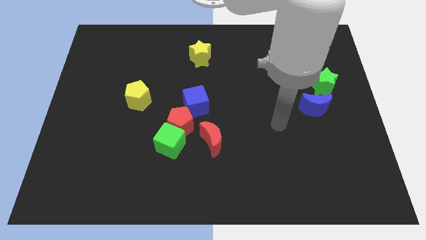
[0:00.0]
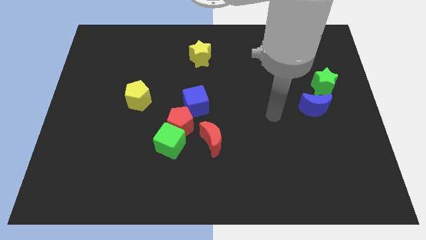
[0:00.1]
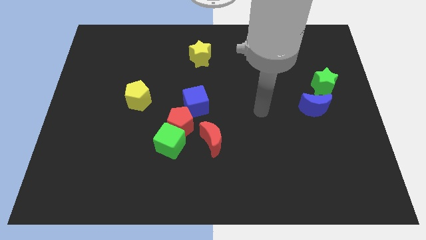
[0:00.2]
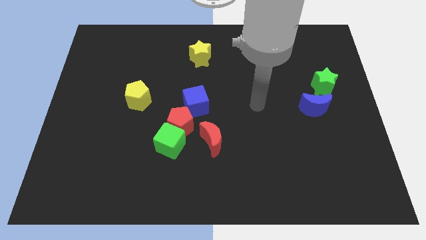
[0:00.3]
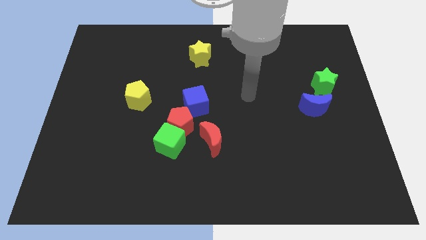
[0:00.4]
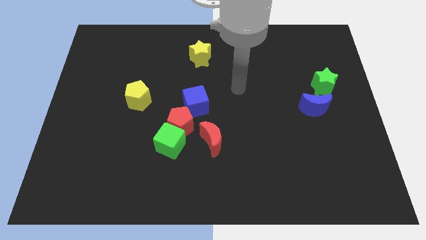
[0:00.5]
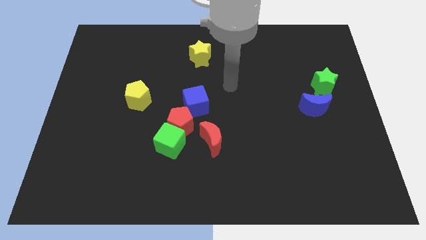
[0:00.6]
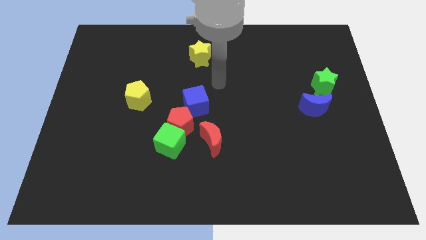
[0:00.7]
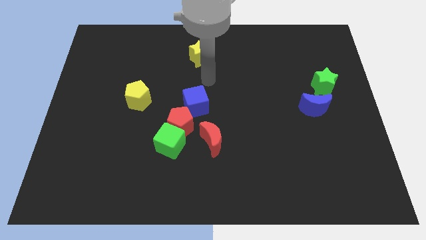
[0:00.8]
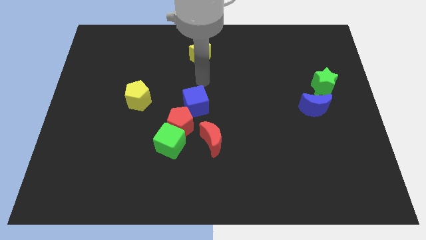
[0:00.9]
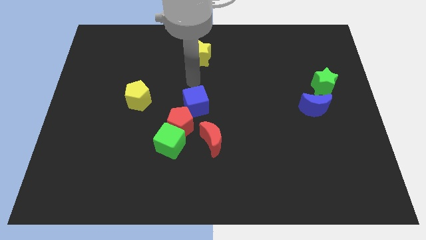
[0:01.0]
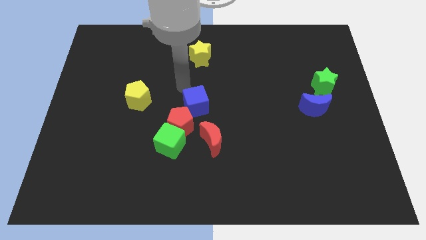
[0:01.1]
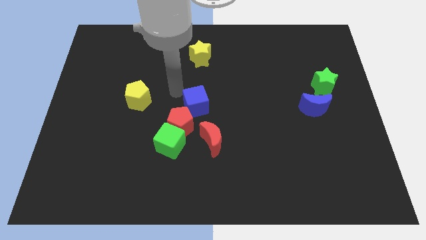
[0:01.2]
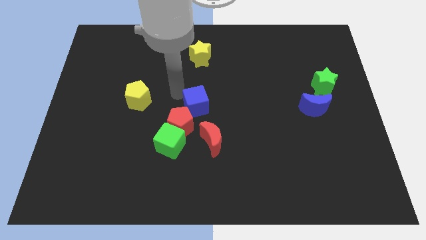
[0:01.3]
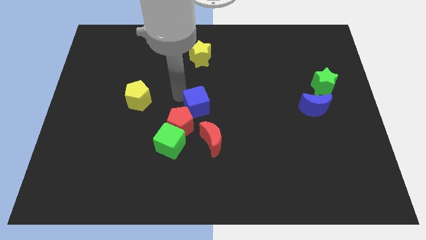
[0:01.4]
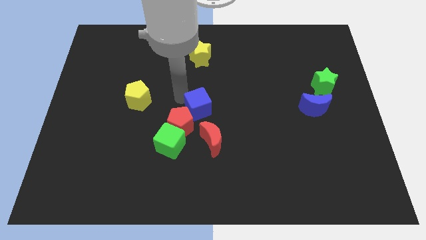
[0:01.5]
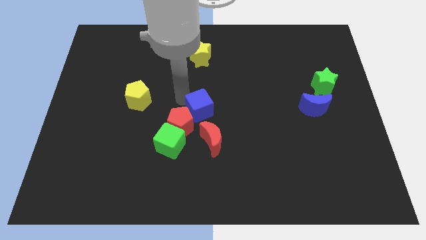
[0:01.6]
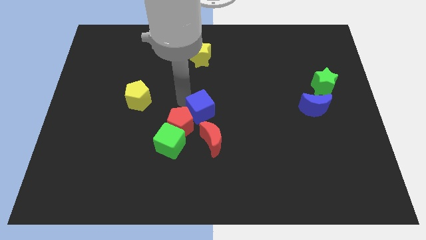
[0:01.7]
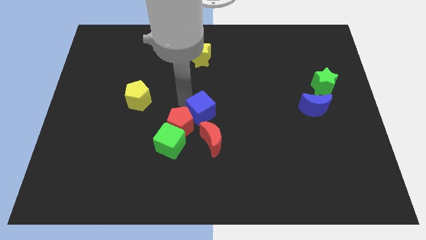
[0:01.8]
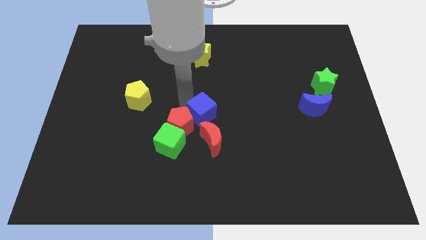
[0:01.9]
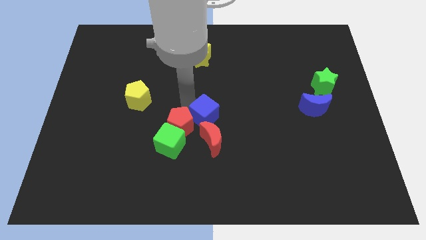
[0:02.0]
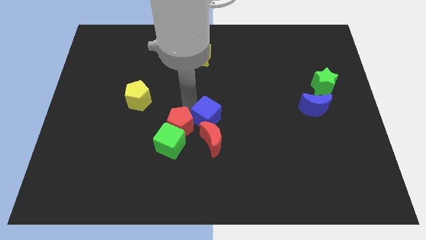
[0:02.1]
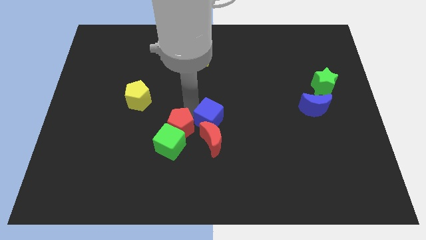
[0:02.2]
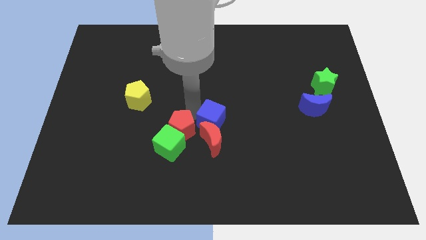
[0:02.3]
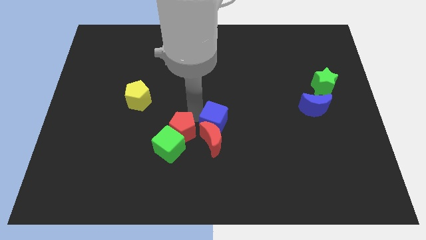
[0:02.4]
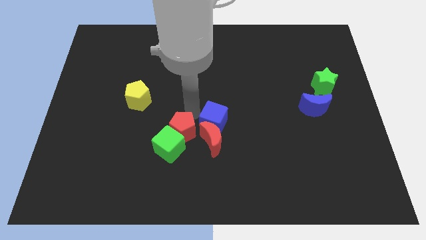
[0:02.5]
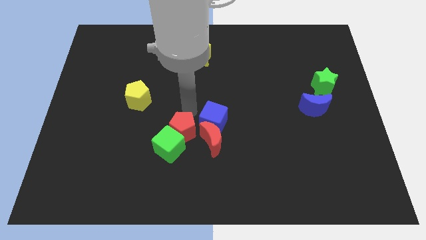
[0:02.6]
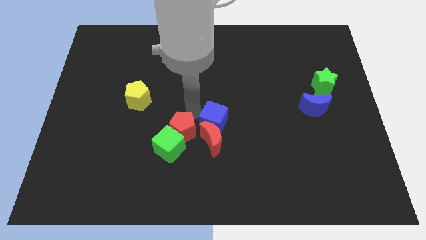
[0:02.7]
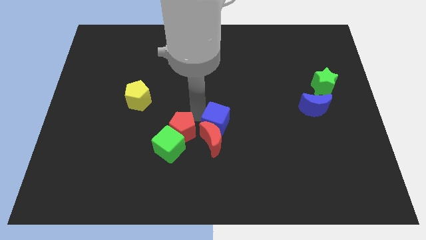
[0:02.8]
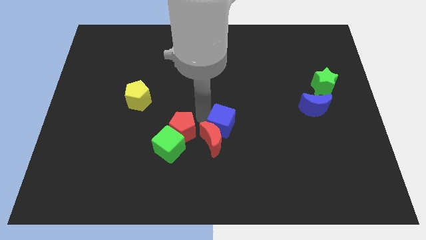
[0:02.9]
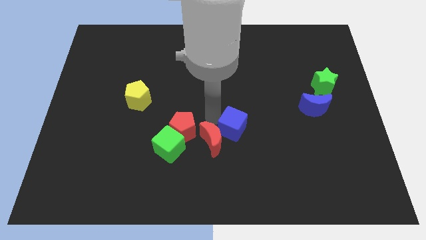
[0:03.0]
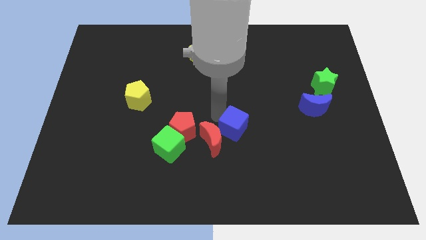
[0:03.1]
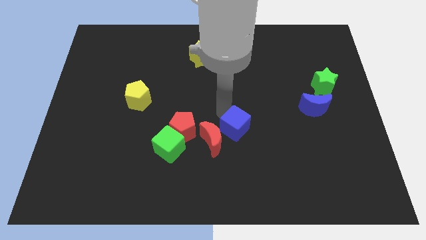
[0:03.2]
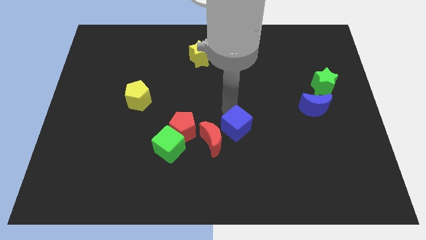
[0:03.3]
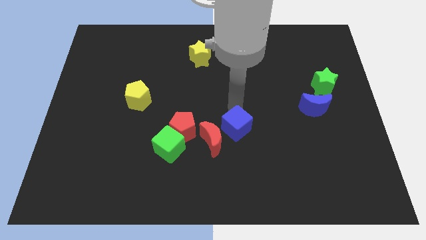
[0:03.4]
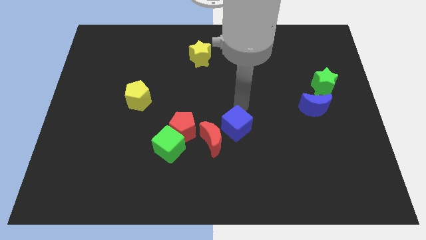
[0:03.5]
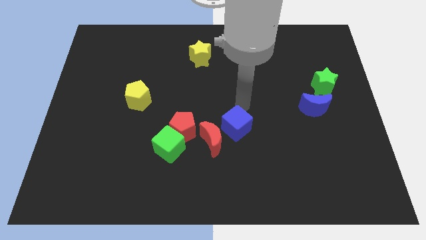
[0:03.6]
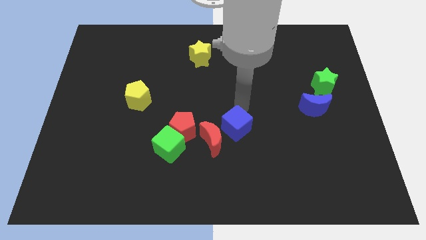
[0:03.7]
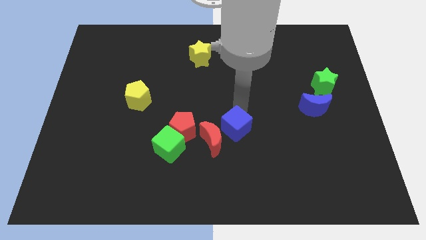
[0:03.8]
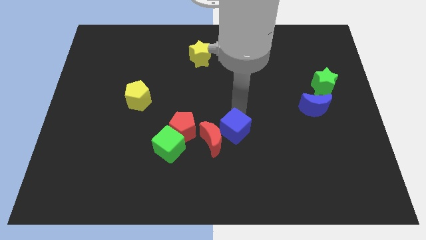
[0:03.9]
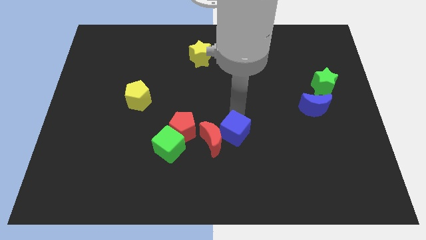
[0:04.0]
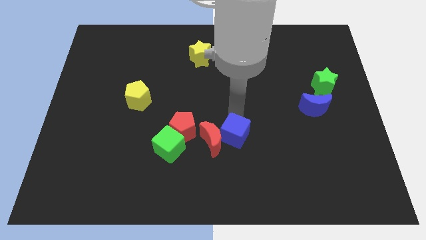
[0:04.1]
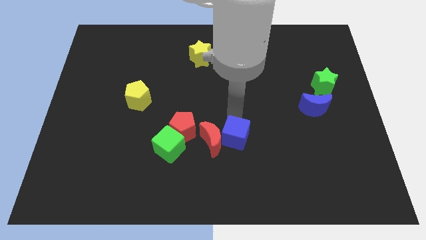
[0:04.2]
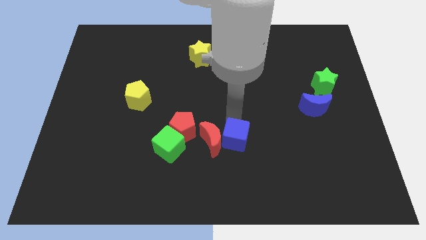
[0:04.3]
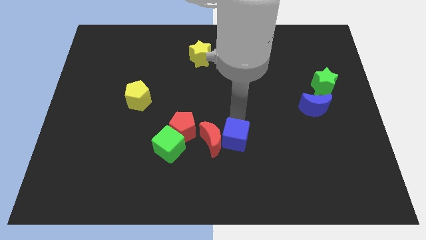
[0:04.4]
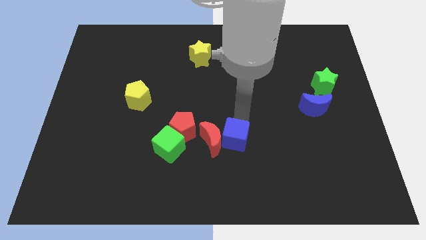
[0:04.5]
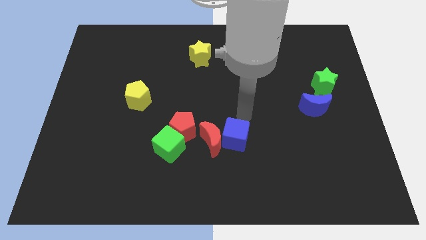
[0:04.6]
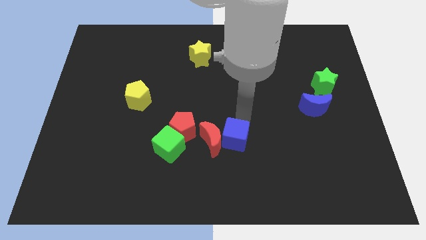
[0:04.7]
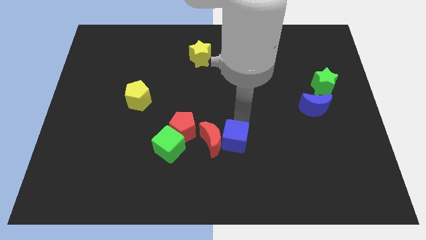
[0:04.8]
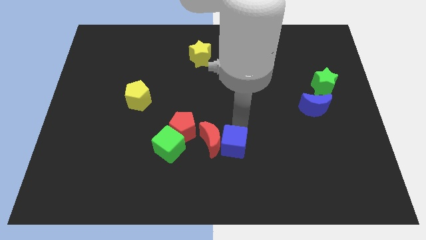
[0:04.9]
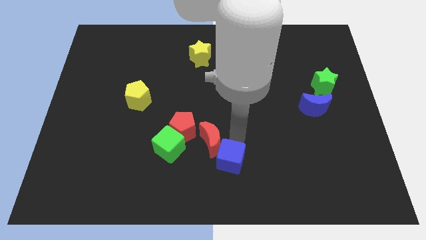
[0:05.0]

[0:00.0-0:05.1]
push the blue cube to the bottom side of the red moon

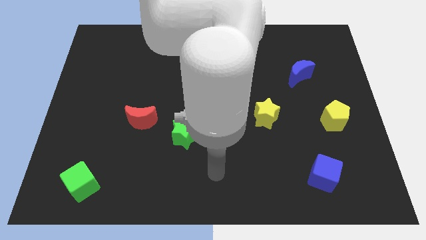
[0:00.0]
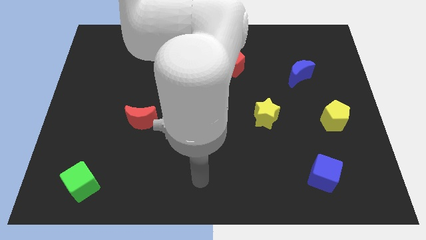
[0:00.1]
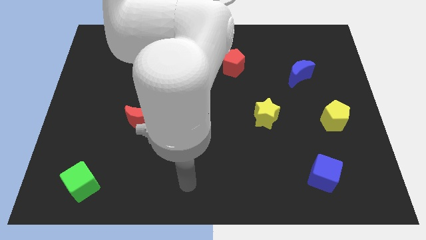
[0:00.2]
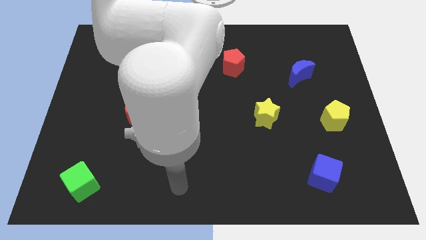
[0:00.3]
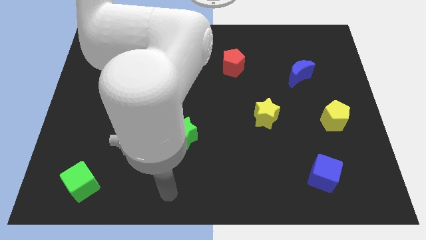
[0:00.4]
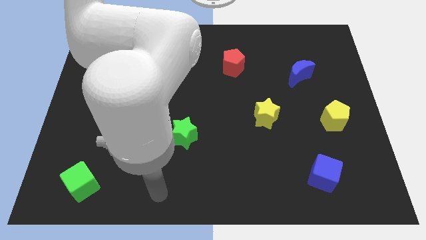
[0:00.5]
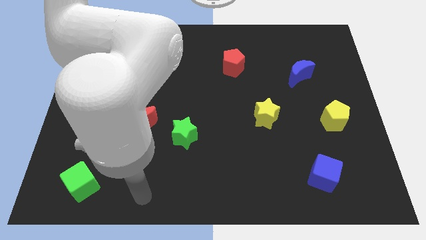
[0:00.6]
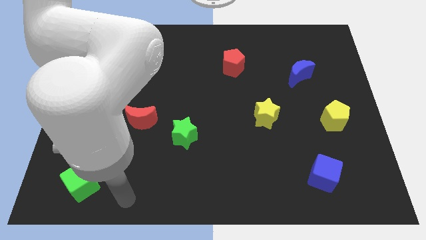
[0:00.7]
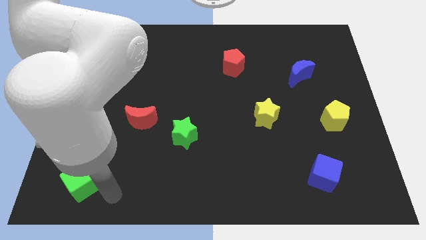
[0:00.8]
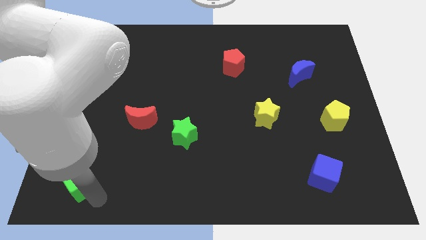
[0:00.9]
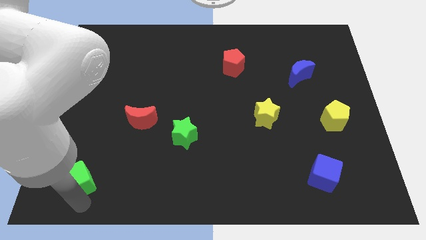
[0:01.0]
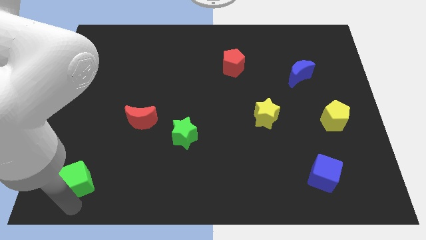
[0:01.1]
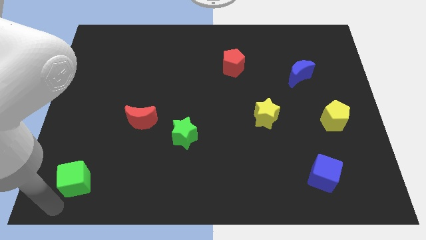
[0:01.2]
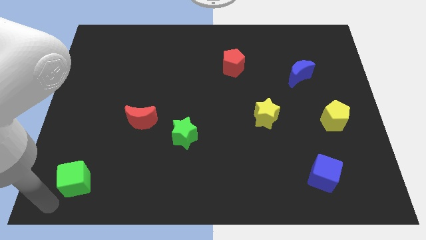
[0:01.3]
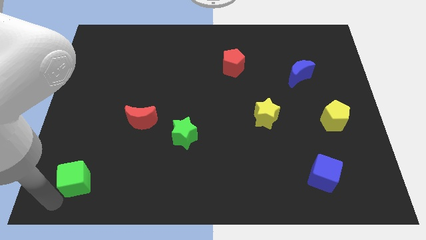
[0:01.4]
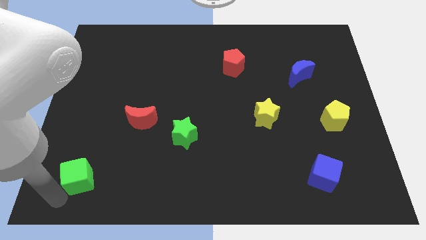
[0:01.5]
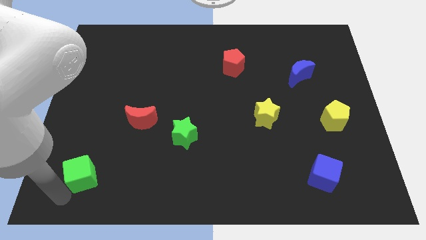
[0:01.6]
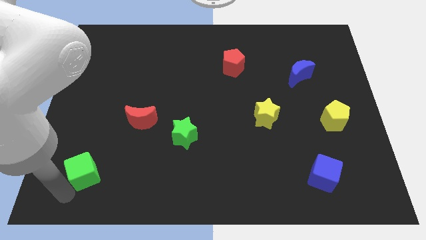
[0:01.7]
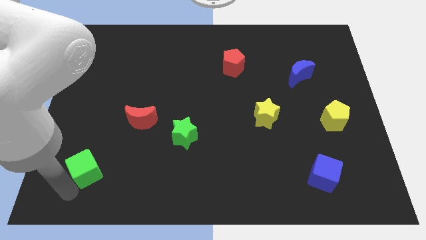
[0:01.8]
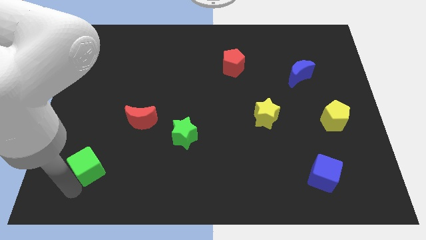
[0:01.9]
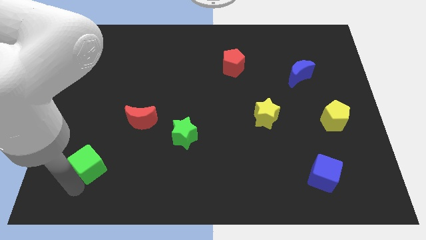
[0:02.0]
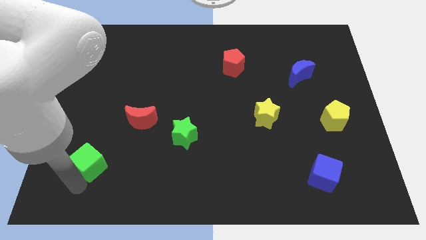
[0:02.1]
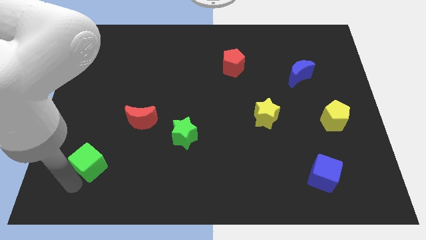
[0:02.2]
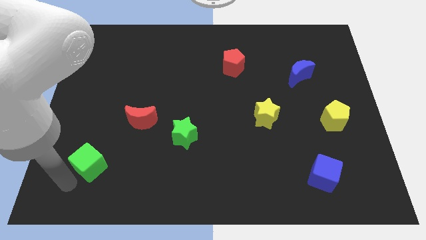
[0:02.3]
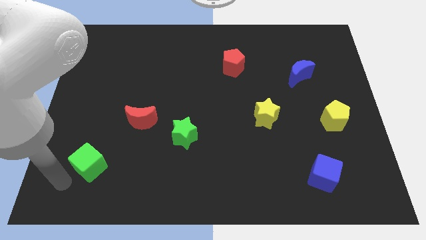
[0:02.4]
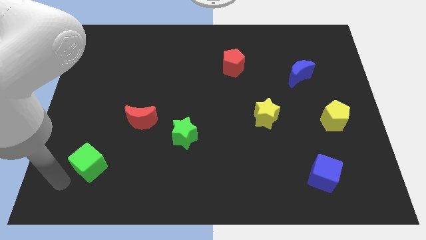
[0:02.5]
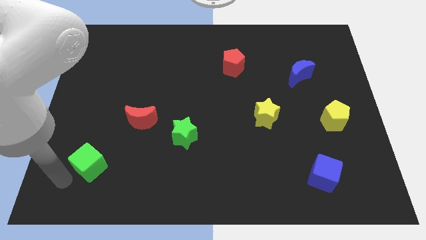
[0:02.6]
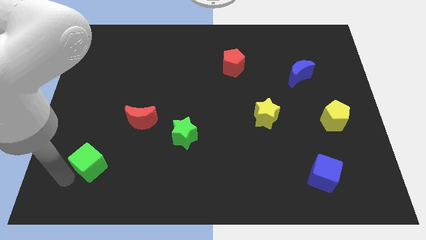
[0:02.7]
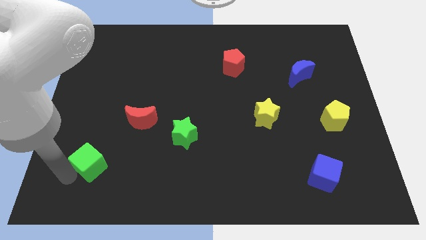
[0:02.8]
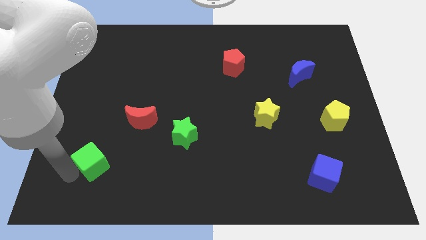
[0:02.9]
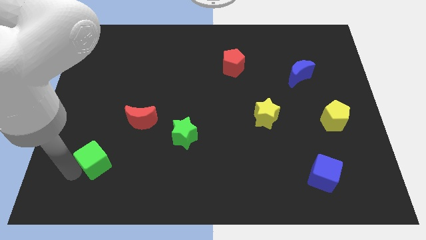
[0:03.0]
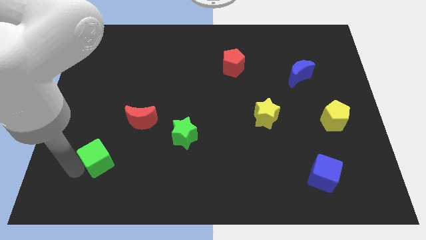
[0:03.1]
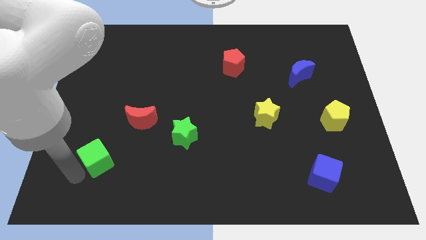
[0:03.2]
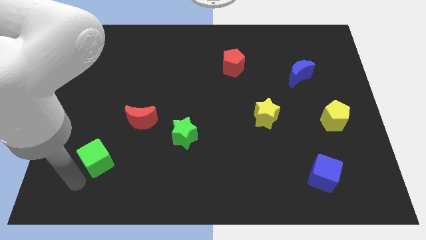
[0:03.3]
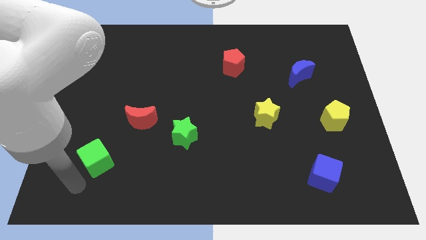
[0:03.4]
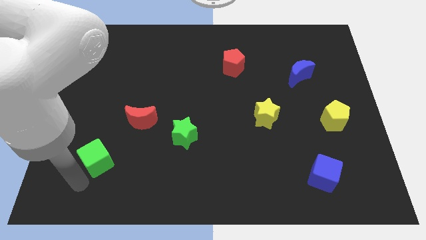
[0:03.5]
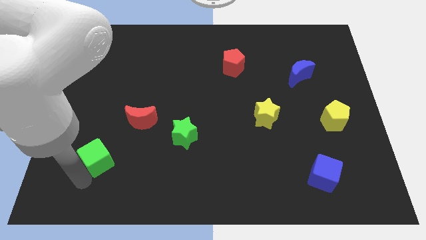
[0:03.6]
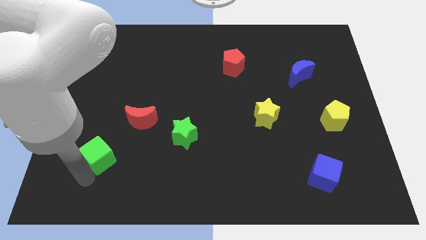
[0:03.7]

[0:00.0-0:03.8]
slide the green cube diagonally down and to the left of the red moon
